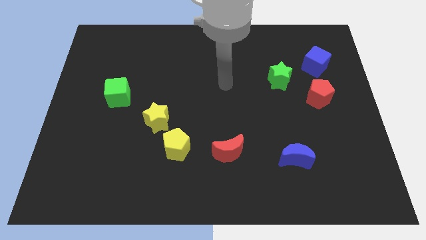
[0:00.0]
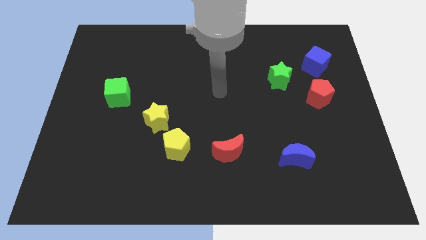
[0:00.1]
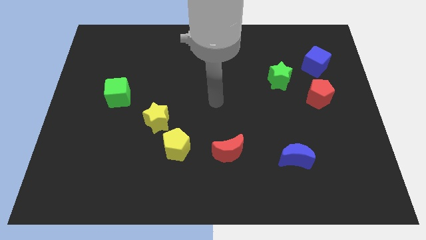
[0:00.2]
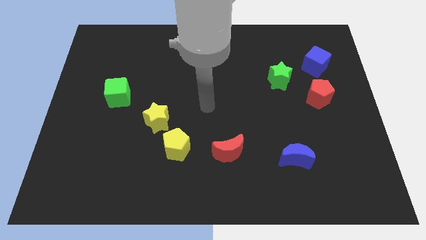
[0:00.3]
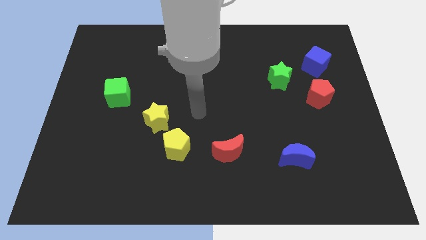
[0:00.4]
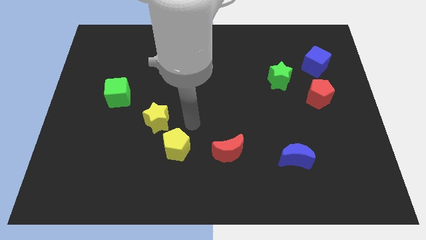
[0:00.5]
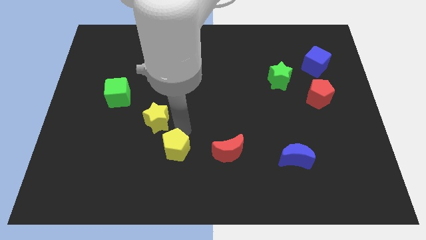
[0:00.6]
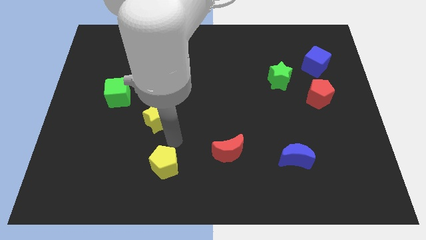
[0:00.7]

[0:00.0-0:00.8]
pull the yellow star apart from the yellow pentagon

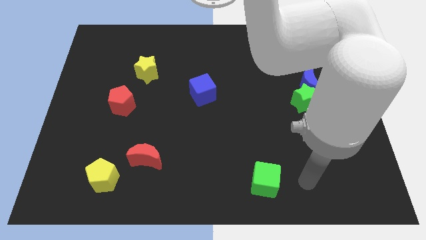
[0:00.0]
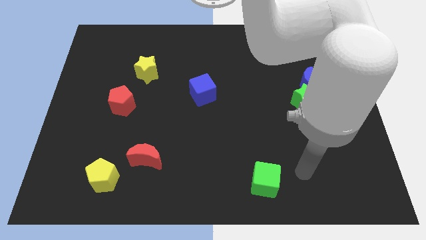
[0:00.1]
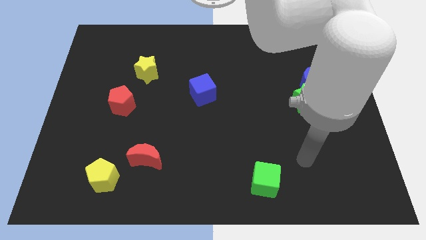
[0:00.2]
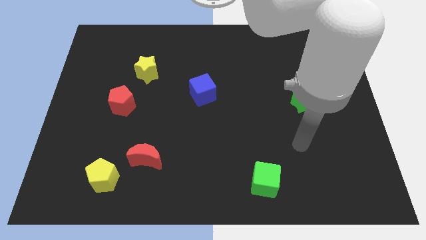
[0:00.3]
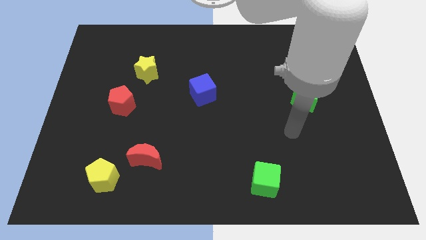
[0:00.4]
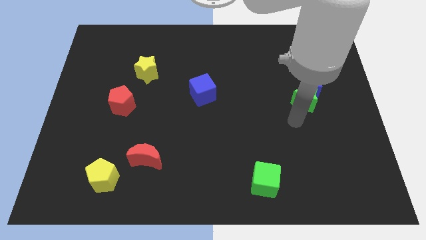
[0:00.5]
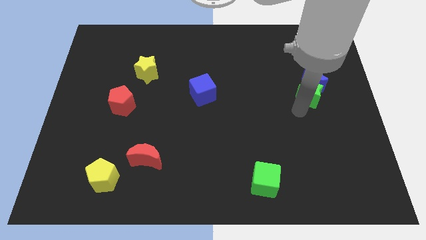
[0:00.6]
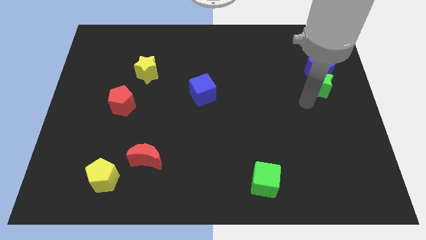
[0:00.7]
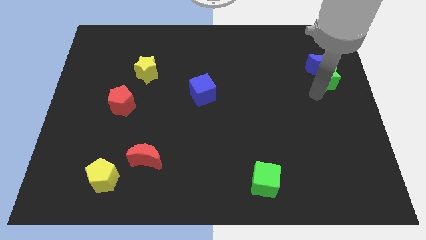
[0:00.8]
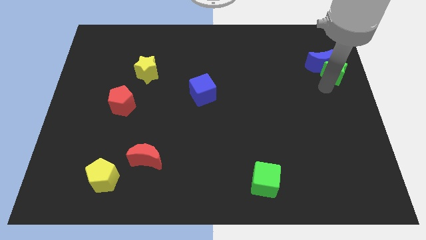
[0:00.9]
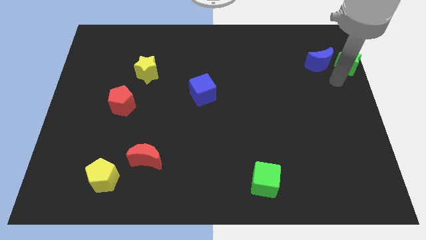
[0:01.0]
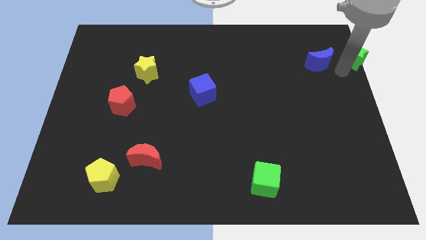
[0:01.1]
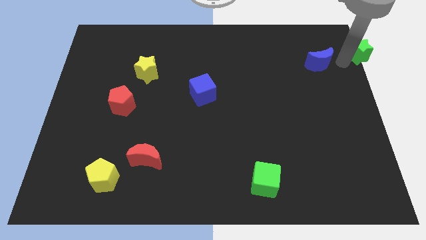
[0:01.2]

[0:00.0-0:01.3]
pull the blue moon apart from the green star

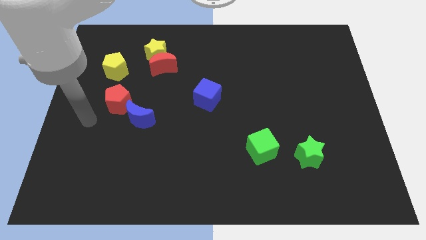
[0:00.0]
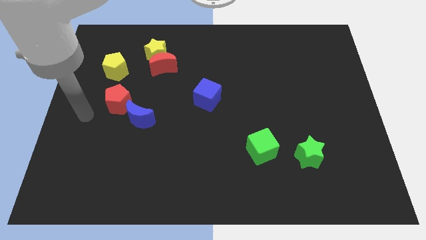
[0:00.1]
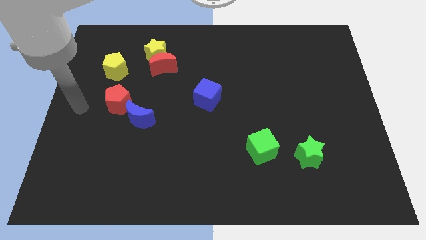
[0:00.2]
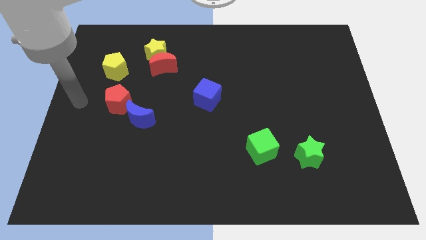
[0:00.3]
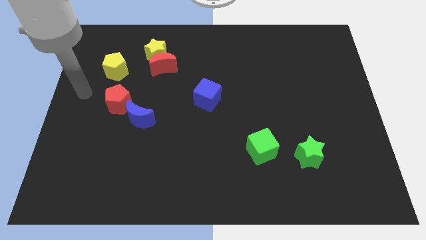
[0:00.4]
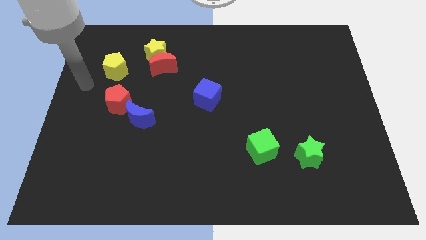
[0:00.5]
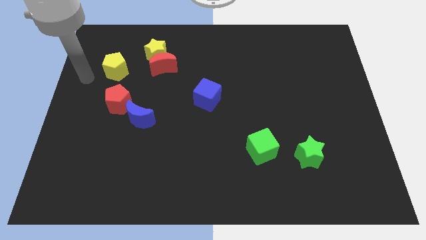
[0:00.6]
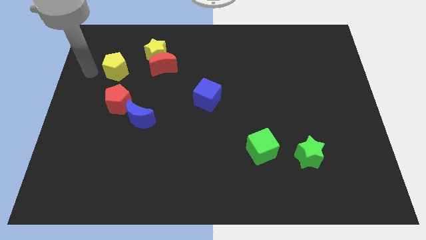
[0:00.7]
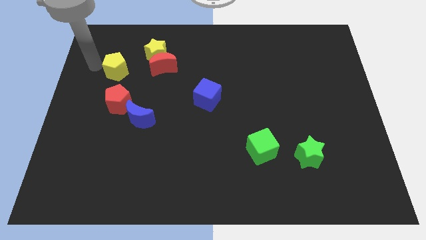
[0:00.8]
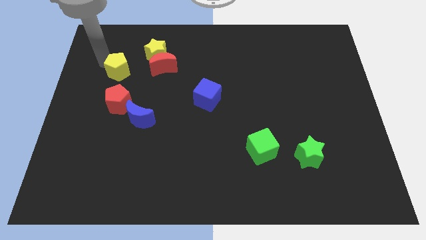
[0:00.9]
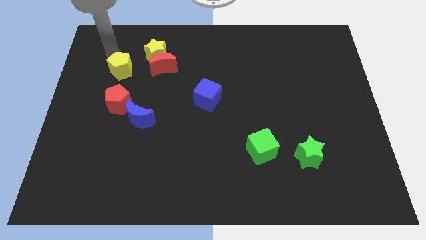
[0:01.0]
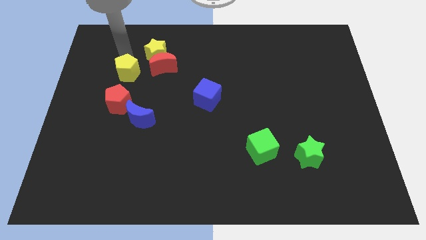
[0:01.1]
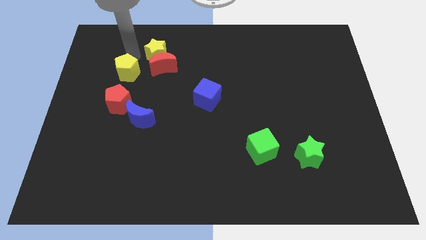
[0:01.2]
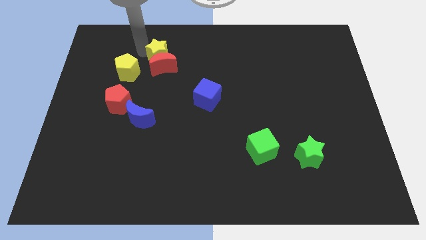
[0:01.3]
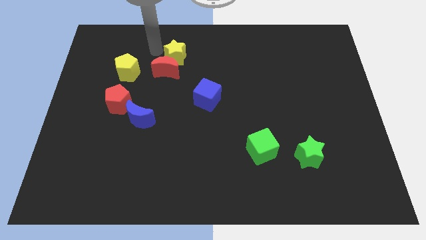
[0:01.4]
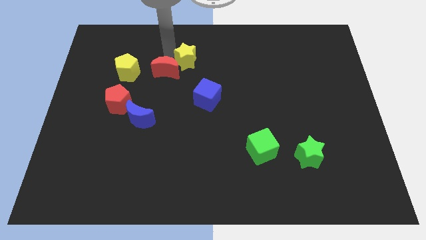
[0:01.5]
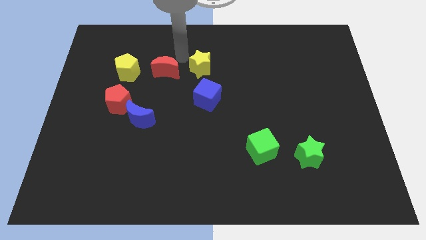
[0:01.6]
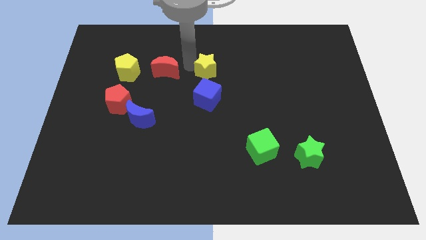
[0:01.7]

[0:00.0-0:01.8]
separate the red moon from the yellow star

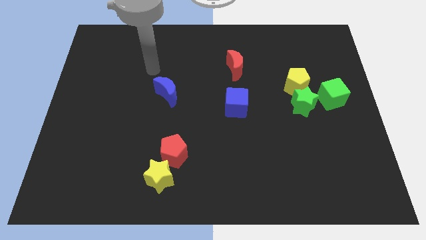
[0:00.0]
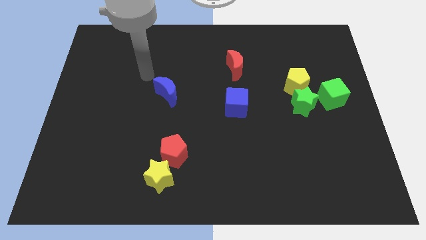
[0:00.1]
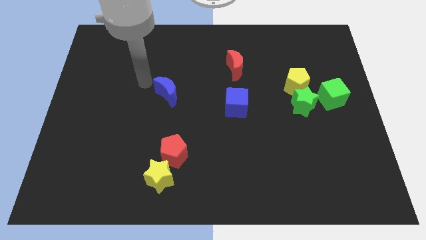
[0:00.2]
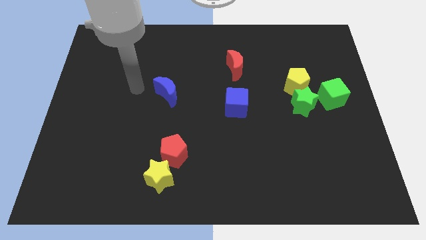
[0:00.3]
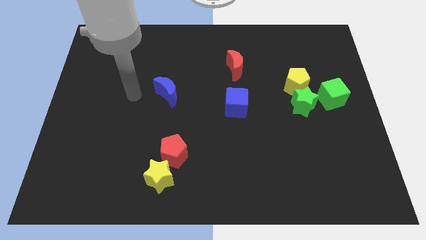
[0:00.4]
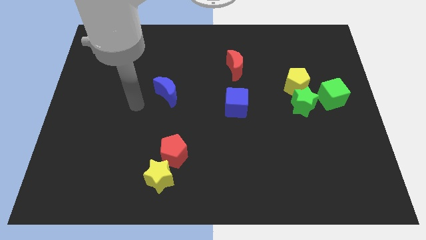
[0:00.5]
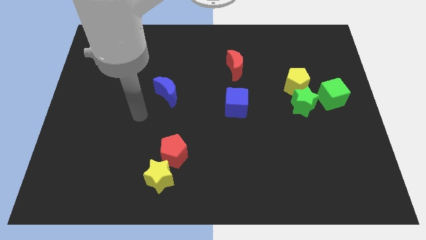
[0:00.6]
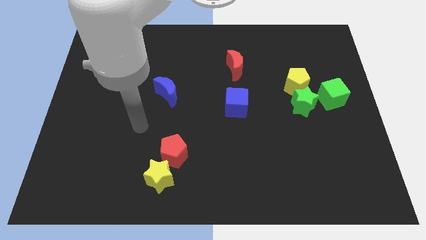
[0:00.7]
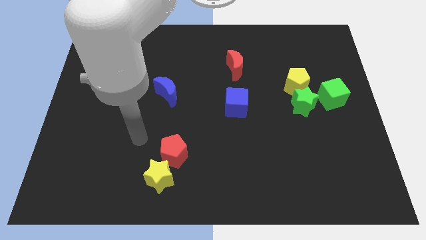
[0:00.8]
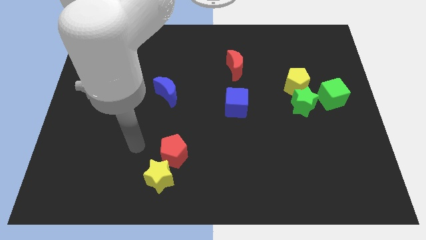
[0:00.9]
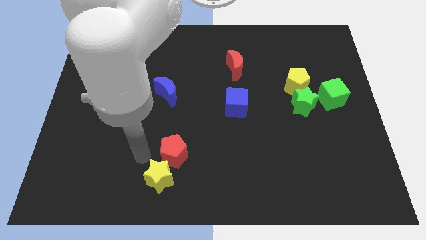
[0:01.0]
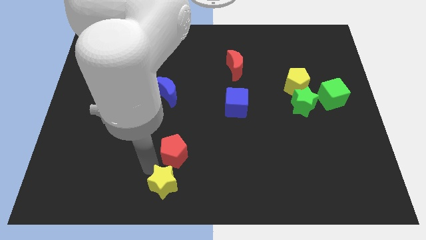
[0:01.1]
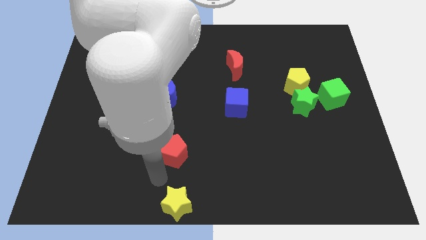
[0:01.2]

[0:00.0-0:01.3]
separate the red pentagon from the yellow star

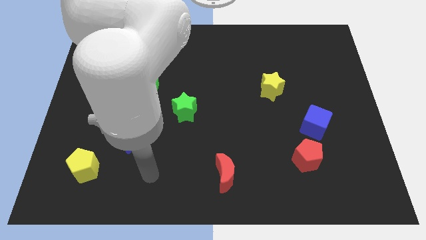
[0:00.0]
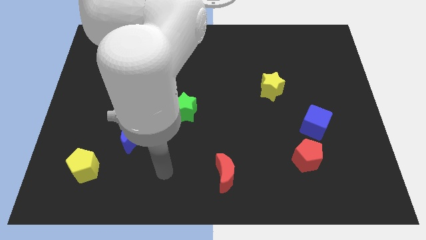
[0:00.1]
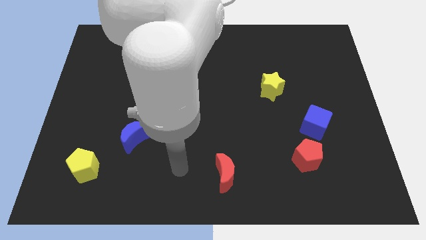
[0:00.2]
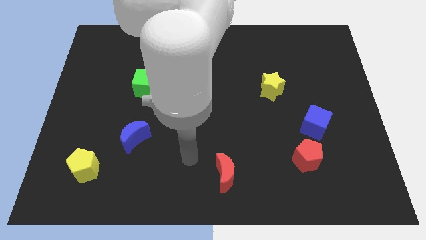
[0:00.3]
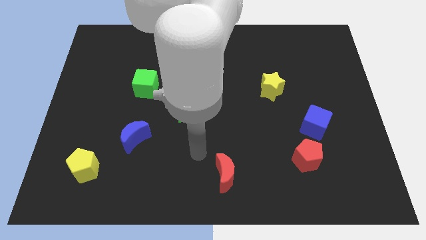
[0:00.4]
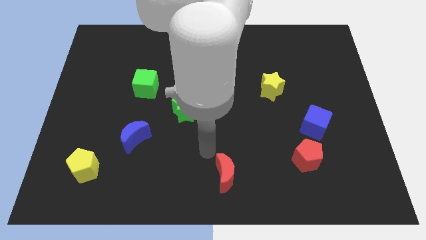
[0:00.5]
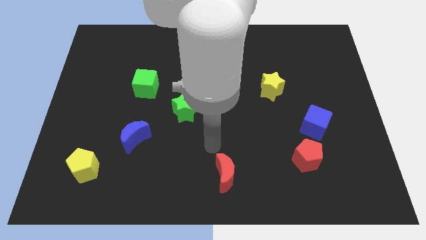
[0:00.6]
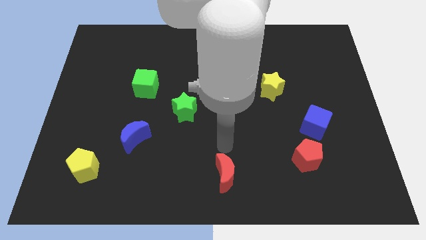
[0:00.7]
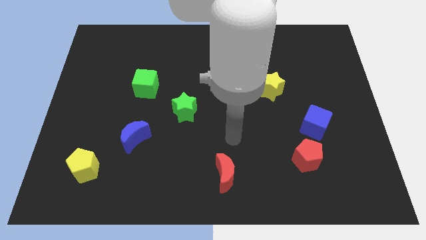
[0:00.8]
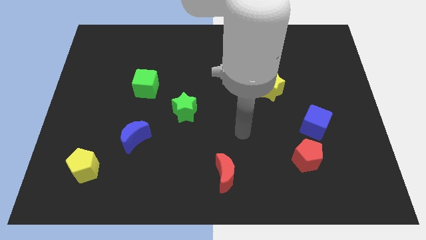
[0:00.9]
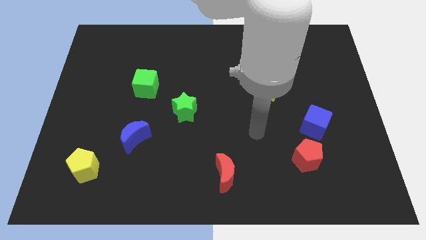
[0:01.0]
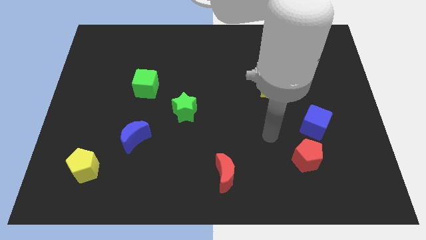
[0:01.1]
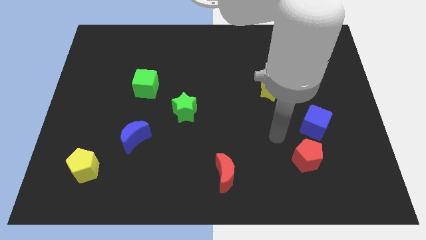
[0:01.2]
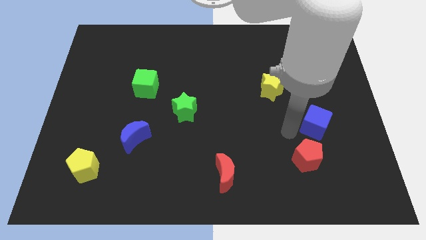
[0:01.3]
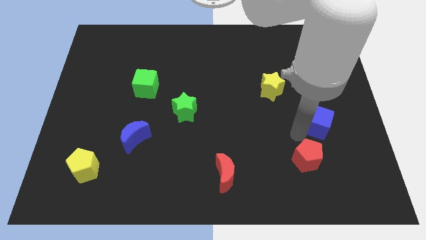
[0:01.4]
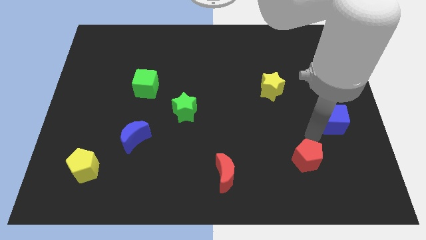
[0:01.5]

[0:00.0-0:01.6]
separate the red pentagon from the blue cube

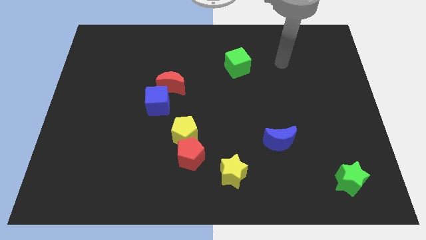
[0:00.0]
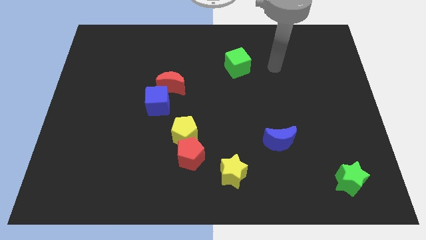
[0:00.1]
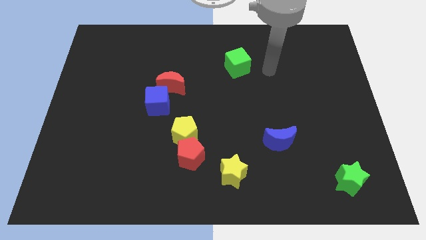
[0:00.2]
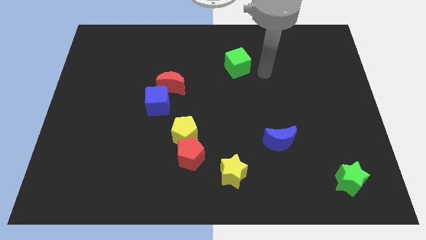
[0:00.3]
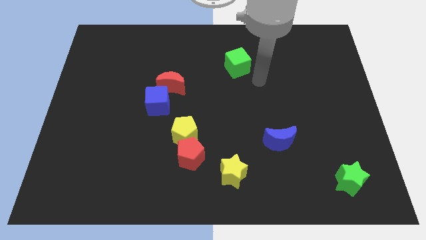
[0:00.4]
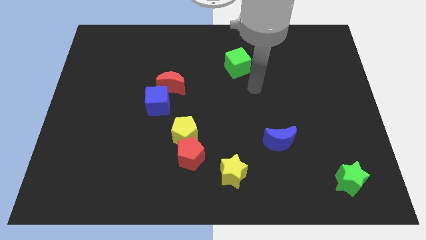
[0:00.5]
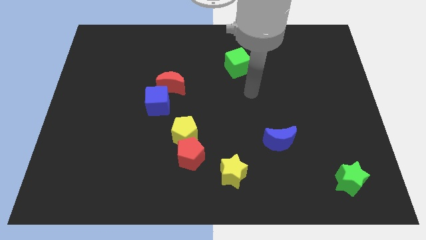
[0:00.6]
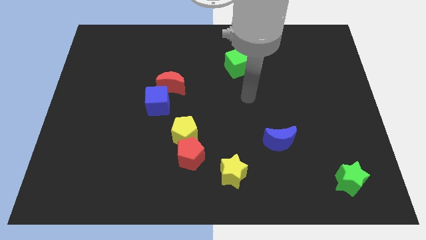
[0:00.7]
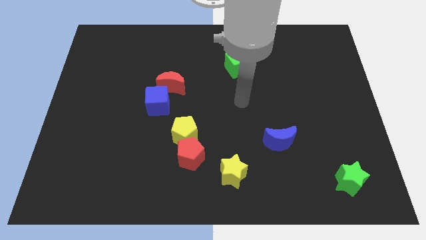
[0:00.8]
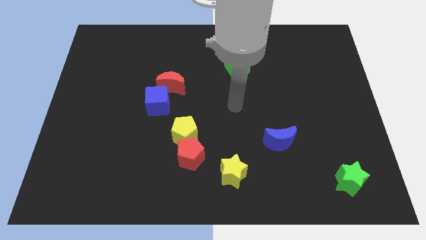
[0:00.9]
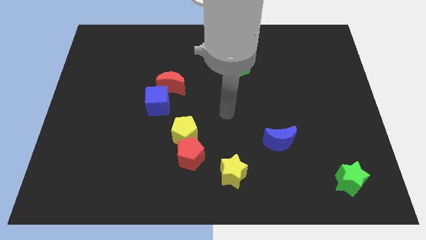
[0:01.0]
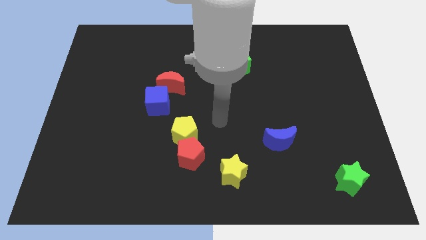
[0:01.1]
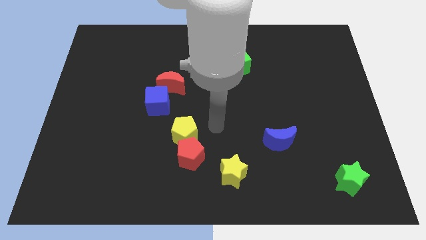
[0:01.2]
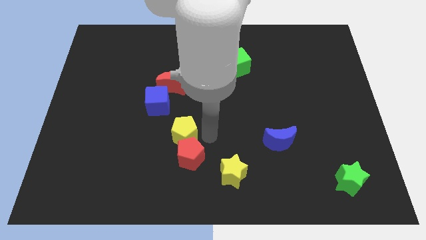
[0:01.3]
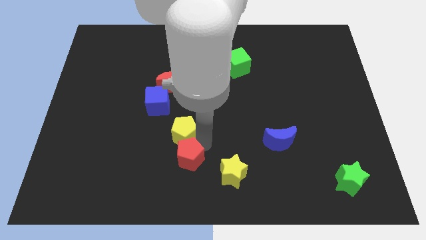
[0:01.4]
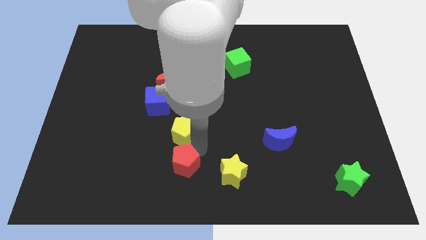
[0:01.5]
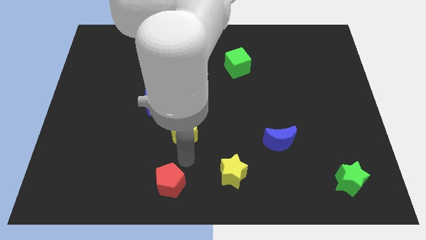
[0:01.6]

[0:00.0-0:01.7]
pull the yellow pentagon apart from the red pentagon

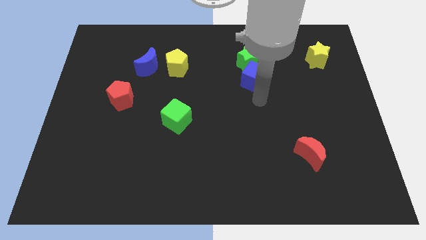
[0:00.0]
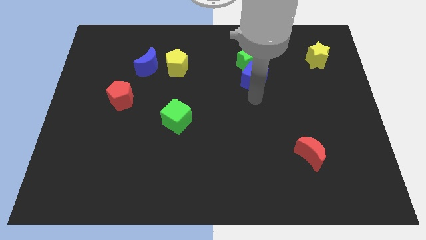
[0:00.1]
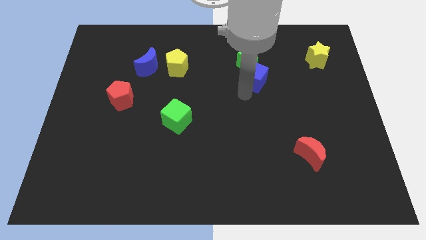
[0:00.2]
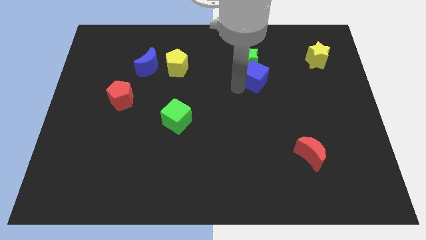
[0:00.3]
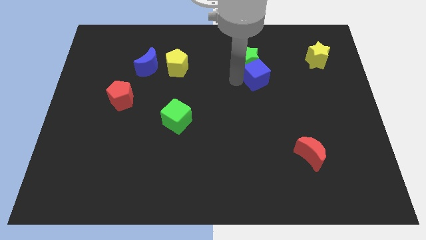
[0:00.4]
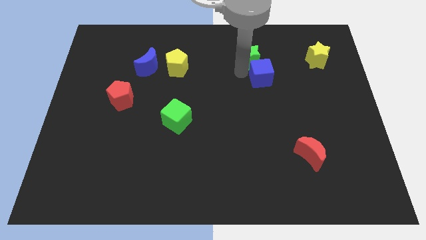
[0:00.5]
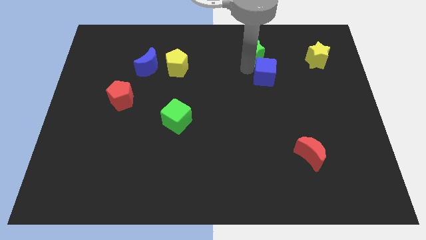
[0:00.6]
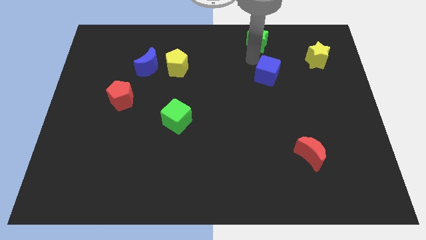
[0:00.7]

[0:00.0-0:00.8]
separate the blue cube from the green star
